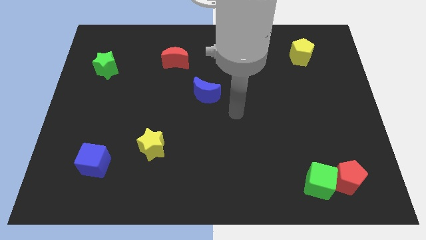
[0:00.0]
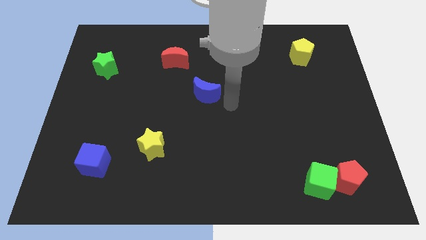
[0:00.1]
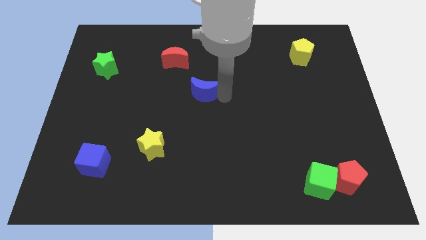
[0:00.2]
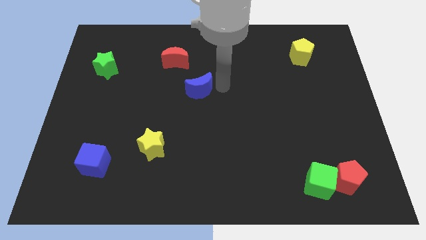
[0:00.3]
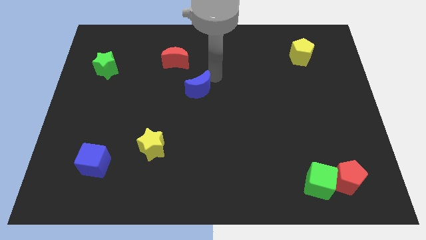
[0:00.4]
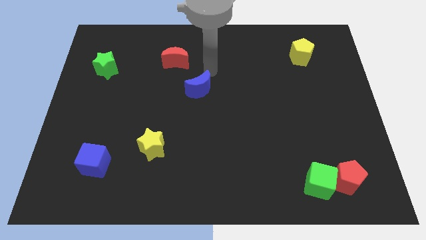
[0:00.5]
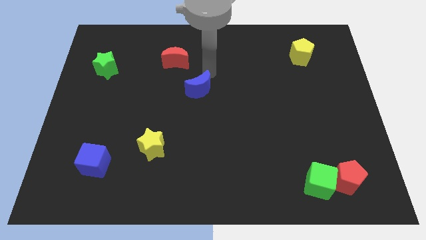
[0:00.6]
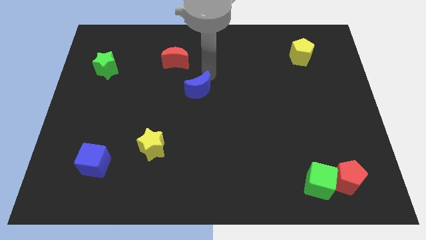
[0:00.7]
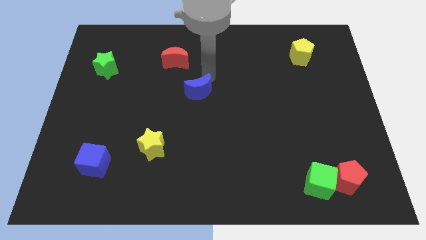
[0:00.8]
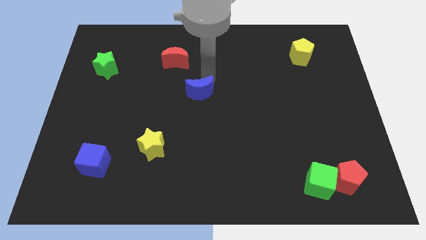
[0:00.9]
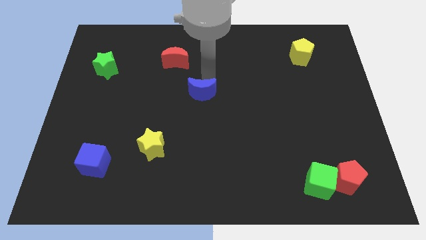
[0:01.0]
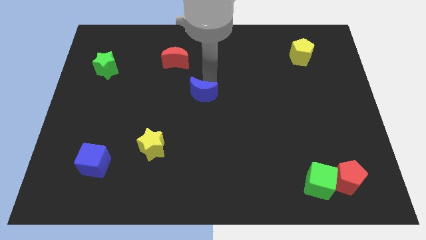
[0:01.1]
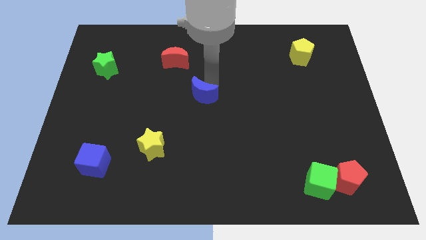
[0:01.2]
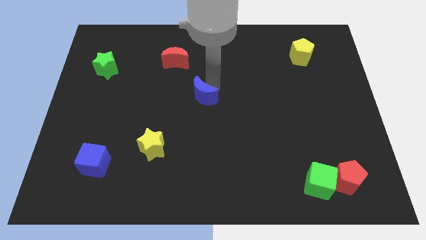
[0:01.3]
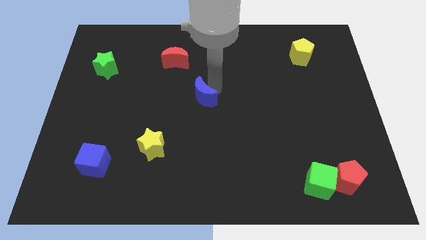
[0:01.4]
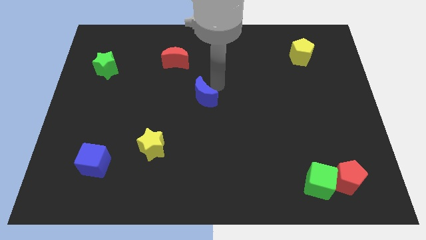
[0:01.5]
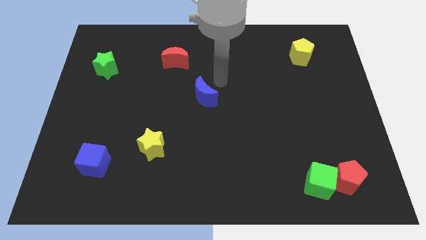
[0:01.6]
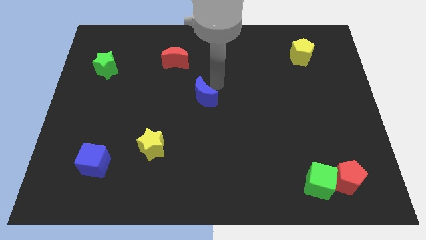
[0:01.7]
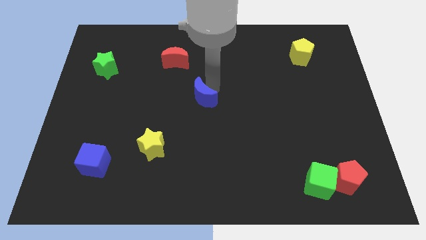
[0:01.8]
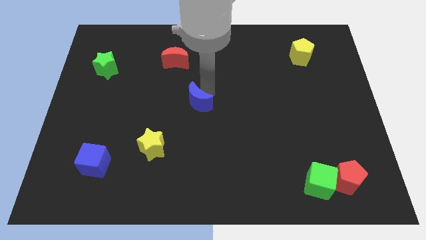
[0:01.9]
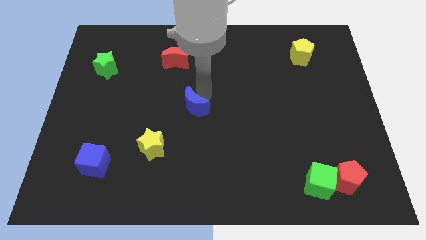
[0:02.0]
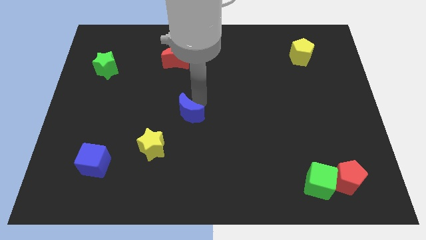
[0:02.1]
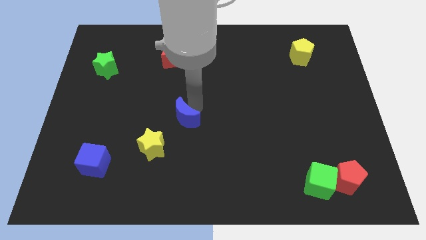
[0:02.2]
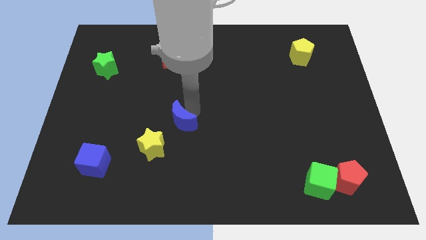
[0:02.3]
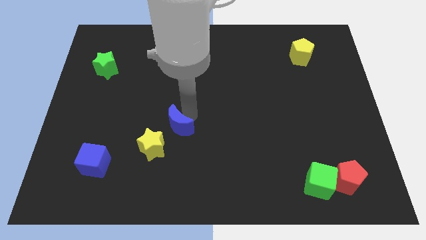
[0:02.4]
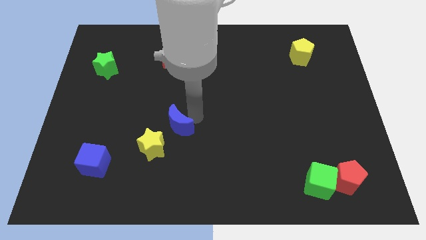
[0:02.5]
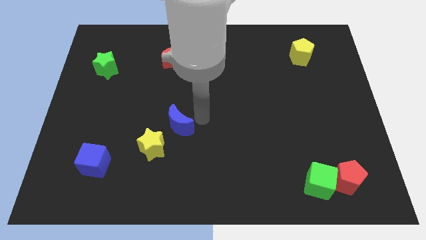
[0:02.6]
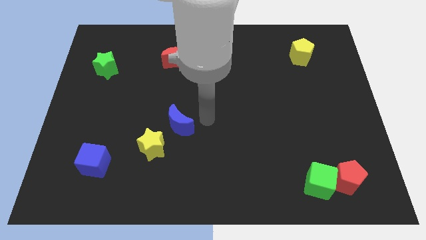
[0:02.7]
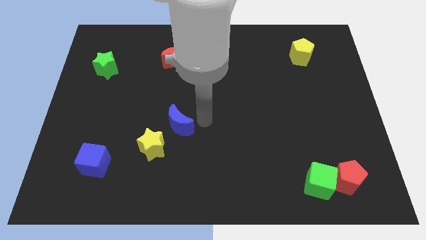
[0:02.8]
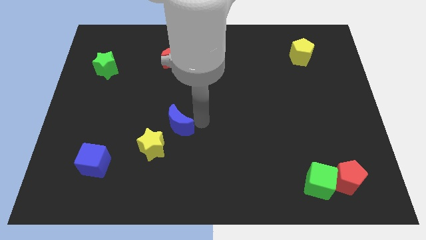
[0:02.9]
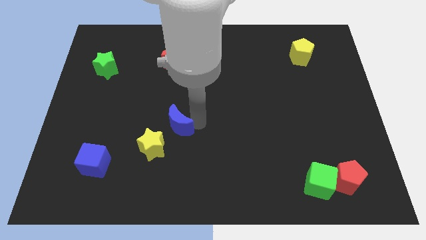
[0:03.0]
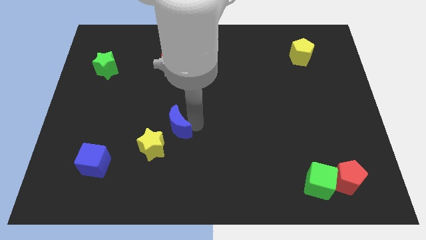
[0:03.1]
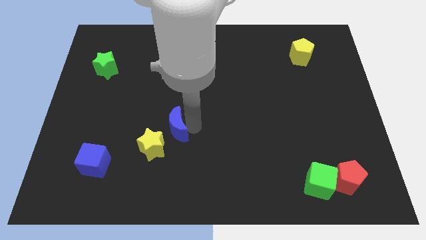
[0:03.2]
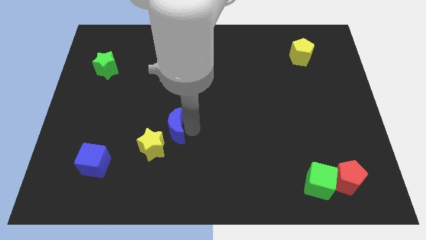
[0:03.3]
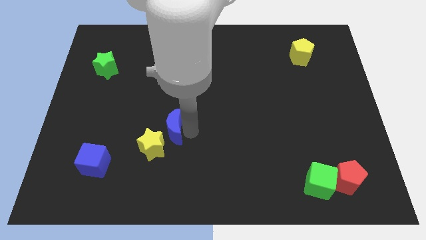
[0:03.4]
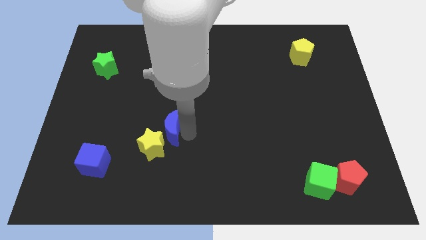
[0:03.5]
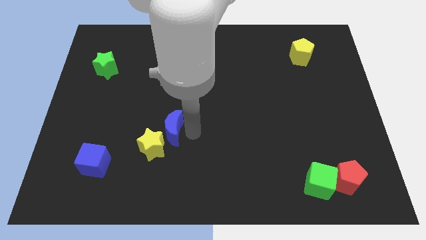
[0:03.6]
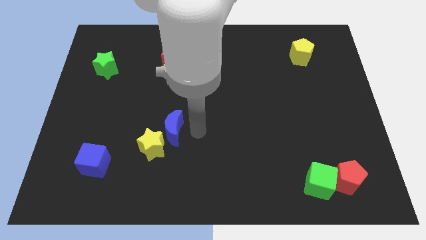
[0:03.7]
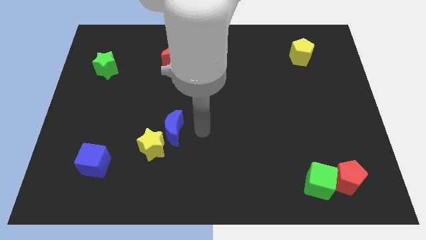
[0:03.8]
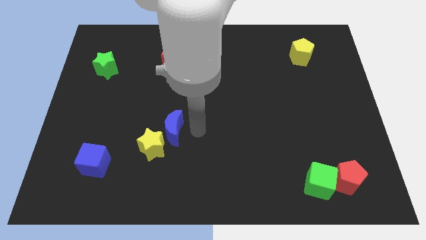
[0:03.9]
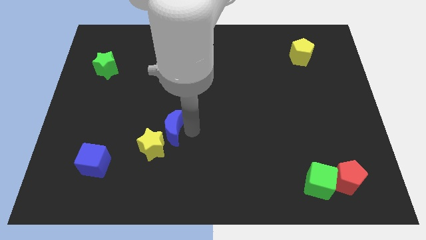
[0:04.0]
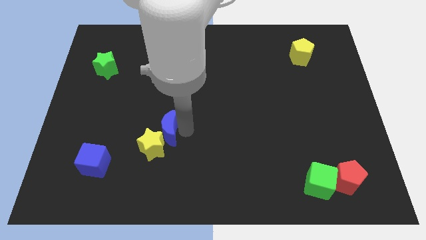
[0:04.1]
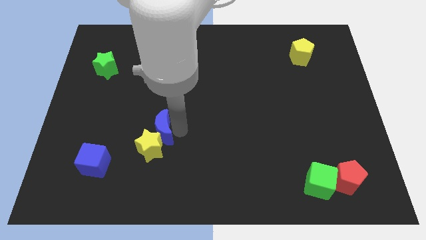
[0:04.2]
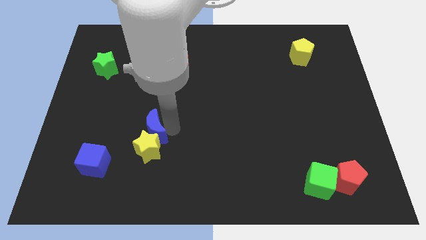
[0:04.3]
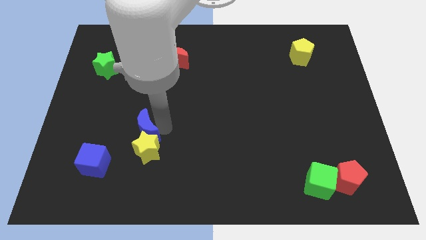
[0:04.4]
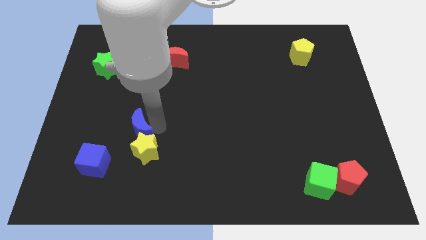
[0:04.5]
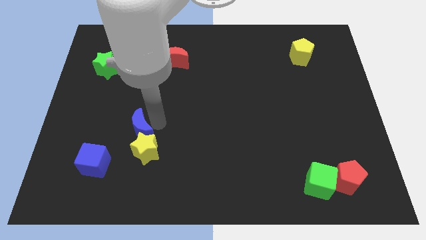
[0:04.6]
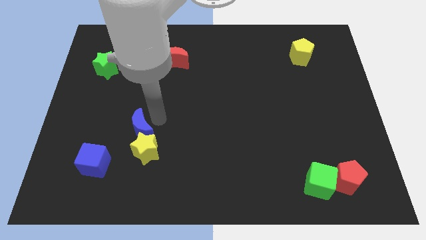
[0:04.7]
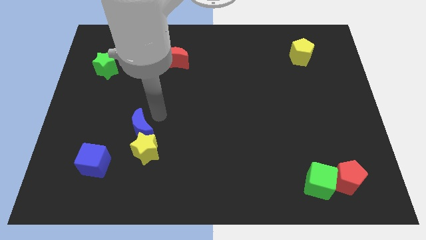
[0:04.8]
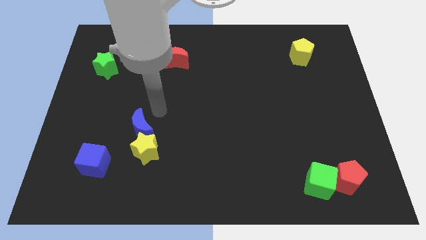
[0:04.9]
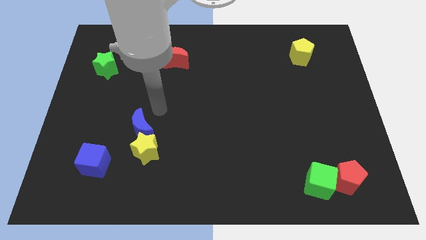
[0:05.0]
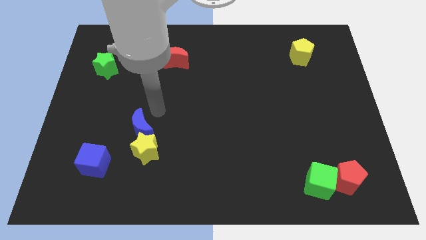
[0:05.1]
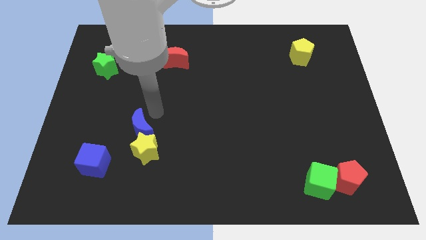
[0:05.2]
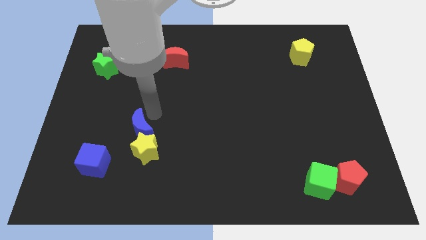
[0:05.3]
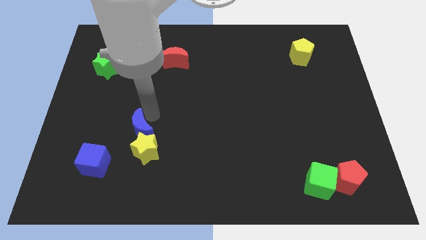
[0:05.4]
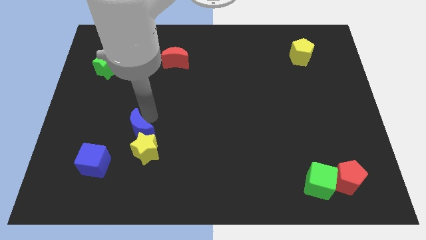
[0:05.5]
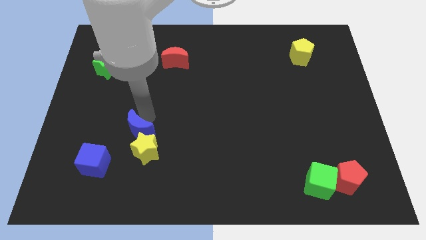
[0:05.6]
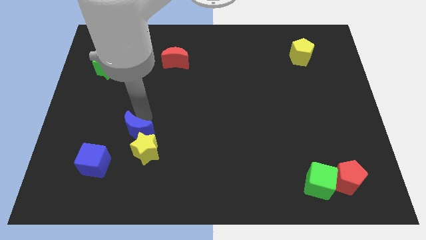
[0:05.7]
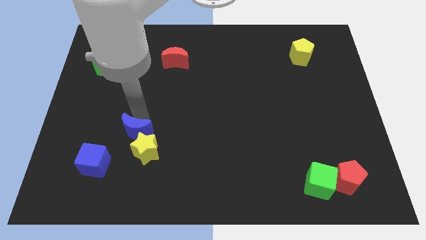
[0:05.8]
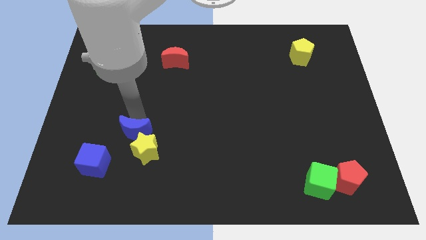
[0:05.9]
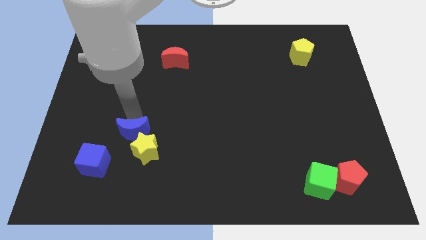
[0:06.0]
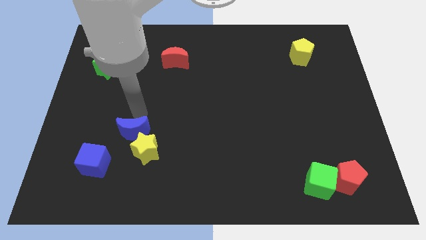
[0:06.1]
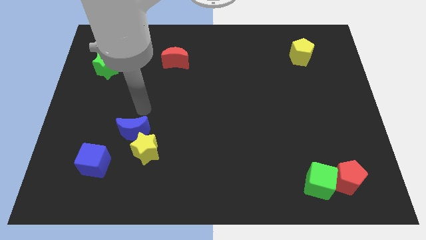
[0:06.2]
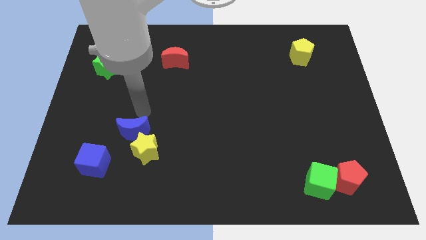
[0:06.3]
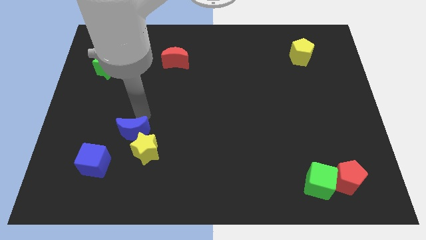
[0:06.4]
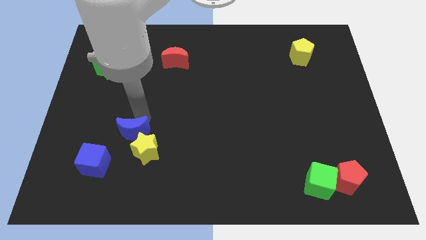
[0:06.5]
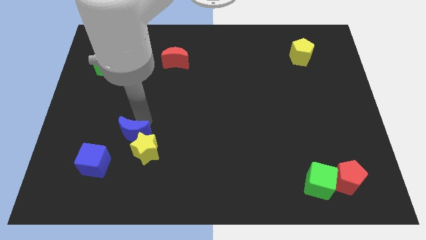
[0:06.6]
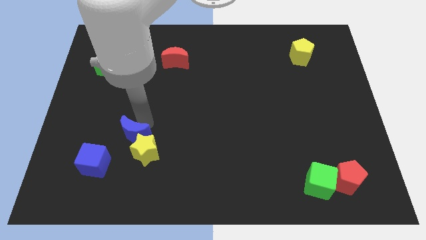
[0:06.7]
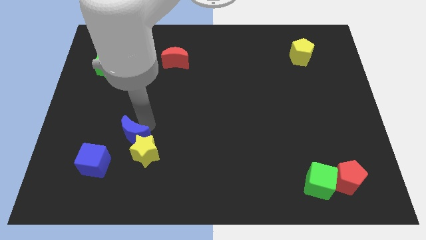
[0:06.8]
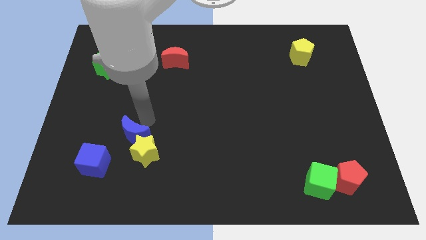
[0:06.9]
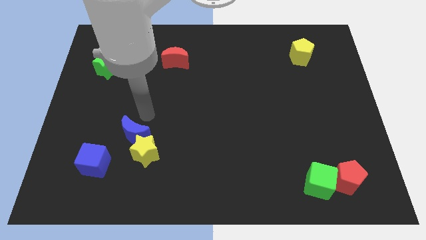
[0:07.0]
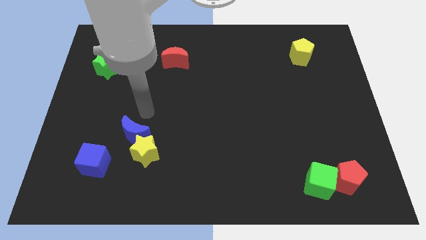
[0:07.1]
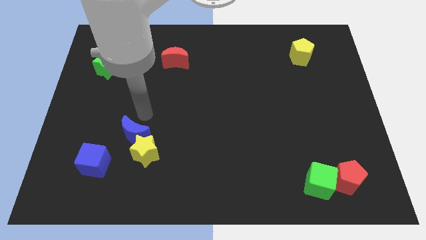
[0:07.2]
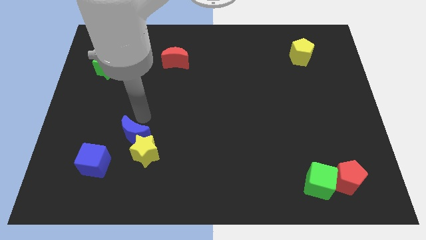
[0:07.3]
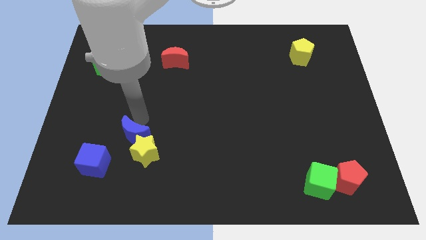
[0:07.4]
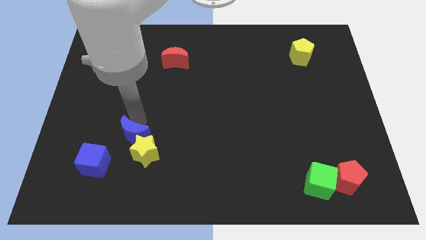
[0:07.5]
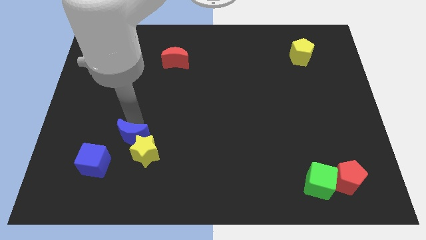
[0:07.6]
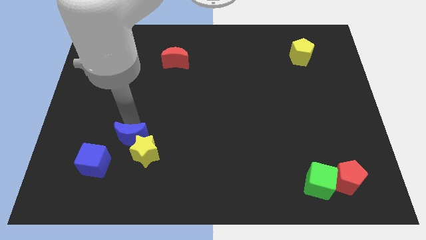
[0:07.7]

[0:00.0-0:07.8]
slide the blue moon downwards and to the left diagonally

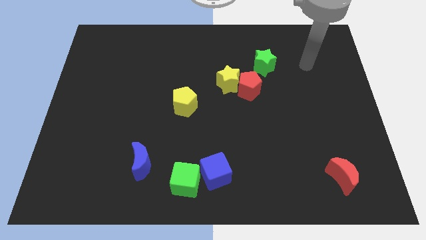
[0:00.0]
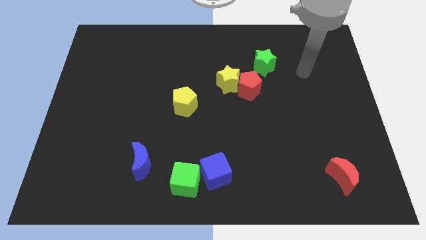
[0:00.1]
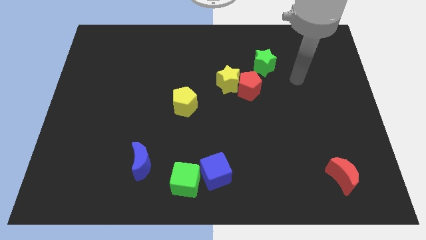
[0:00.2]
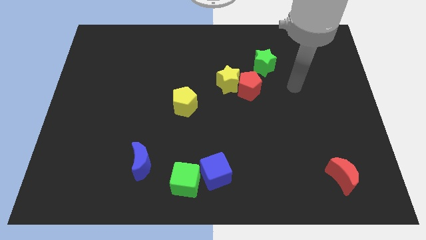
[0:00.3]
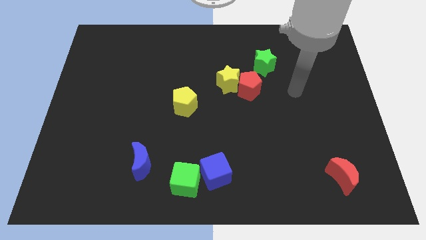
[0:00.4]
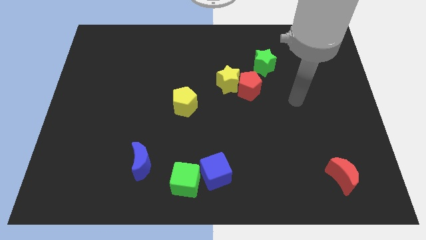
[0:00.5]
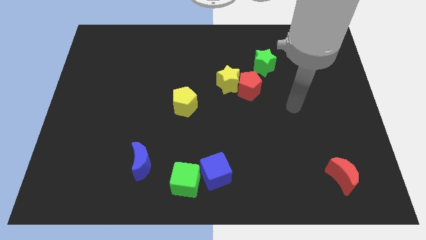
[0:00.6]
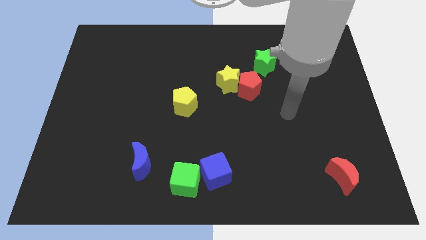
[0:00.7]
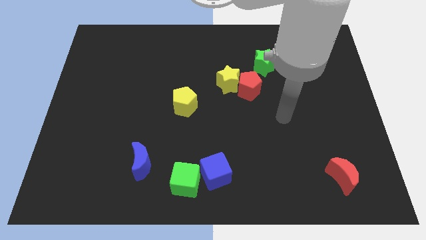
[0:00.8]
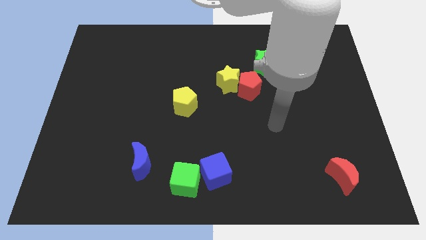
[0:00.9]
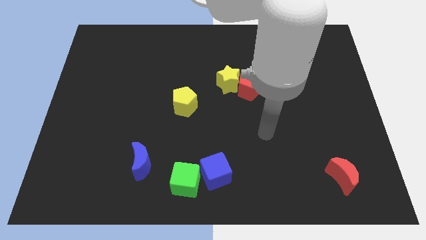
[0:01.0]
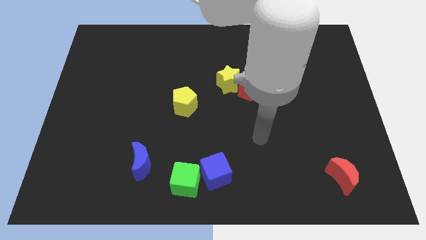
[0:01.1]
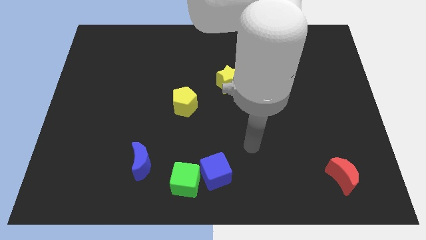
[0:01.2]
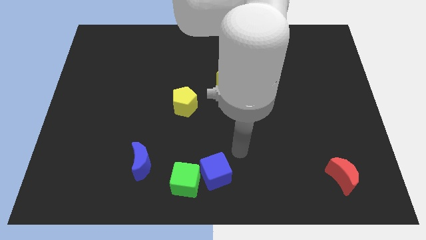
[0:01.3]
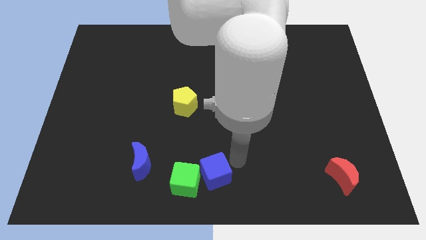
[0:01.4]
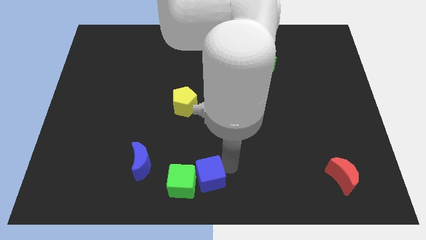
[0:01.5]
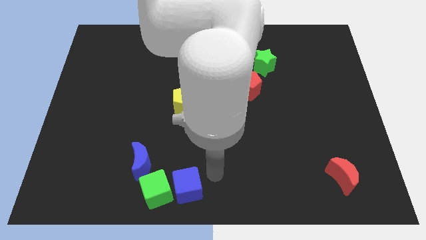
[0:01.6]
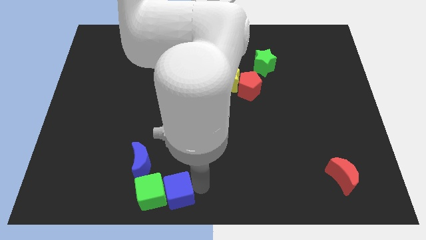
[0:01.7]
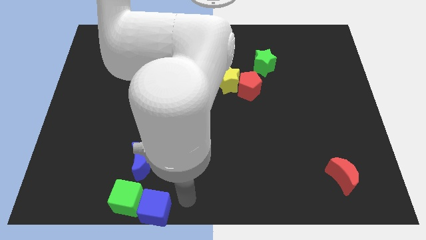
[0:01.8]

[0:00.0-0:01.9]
push the green cube slightly to the left
